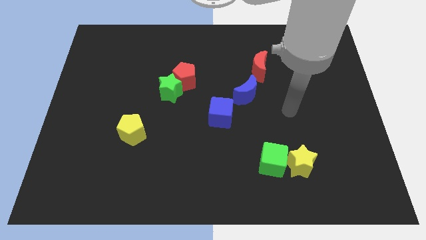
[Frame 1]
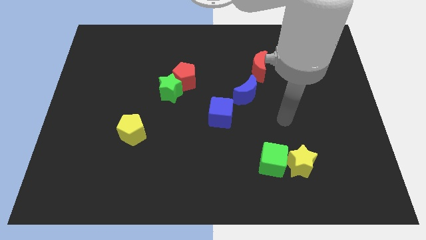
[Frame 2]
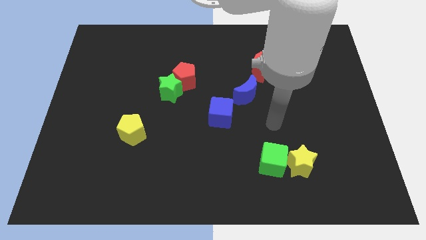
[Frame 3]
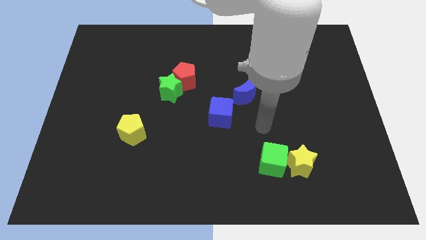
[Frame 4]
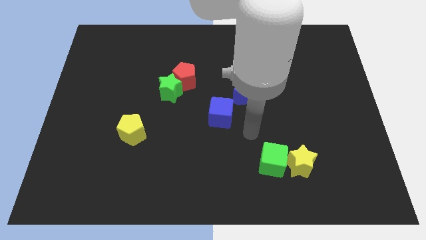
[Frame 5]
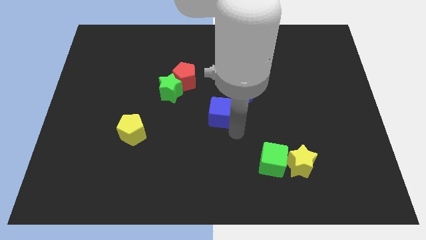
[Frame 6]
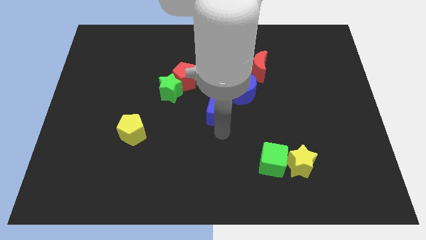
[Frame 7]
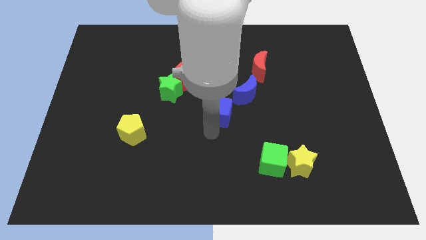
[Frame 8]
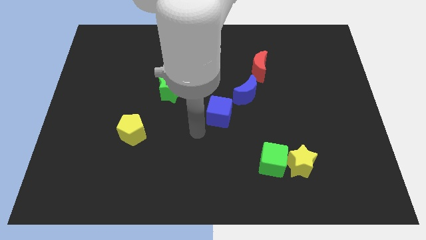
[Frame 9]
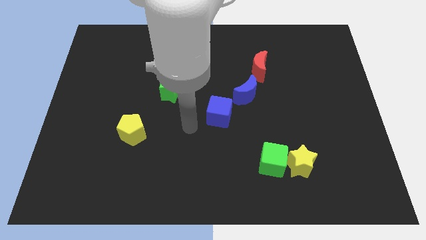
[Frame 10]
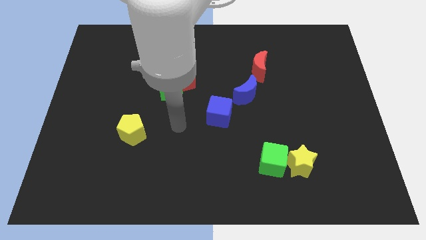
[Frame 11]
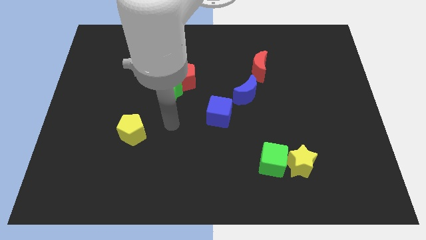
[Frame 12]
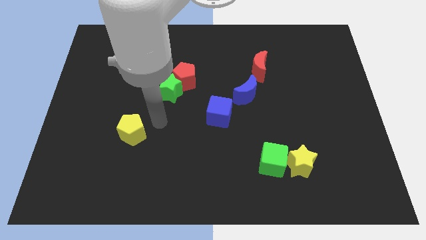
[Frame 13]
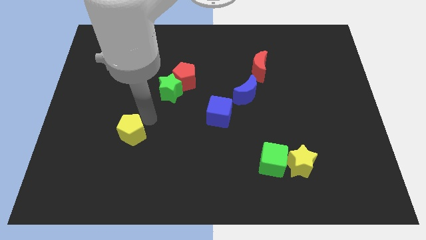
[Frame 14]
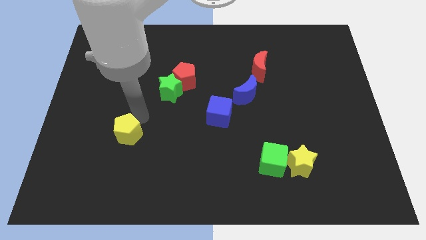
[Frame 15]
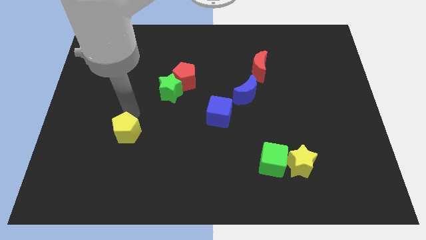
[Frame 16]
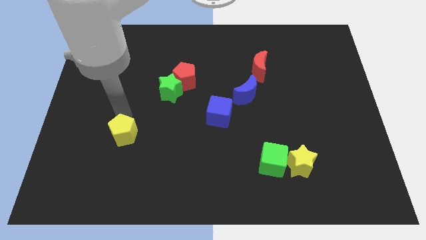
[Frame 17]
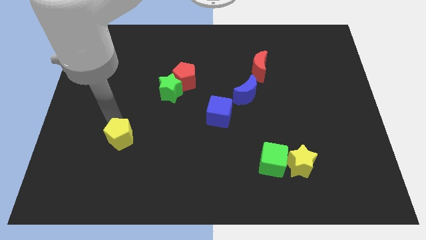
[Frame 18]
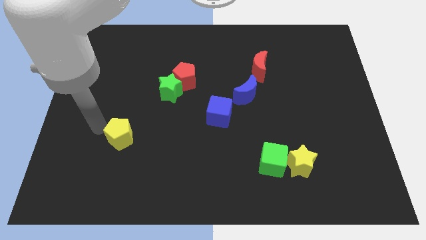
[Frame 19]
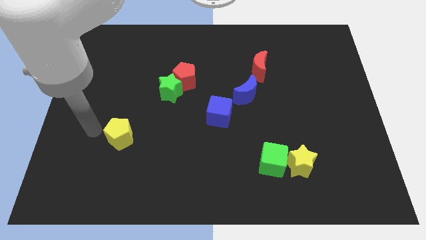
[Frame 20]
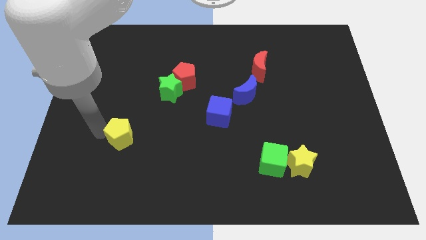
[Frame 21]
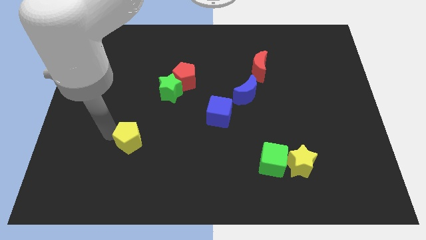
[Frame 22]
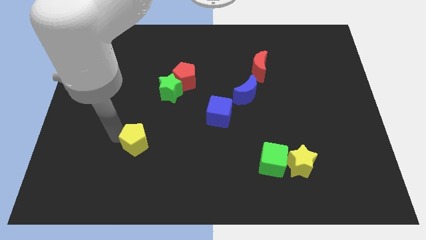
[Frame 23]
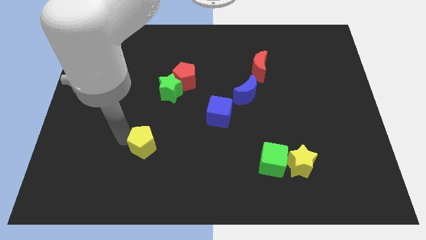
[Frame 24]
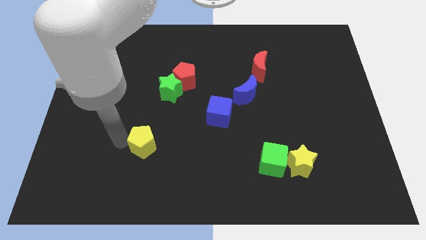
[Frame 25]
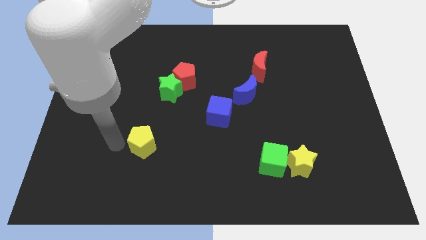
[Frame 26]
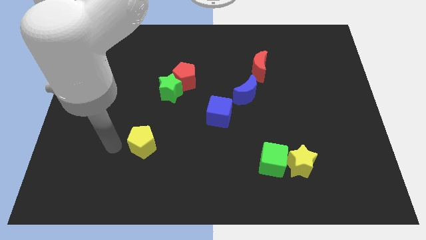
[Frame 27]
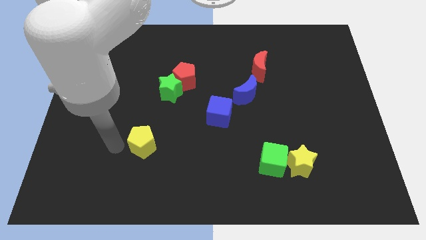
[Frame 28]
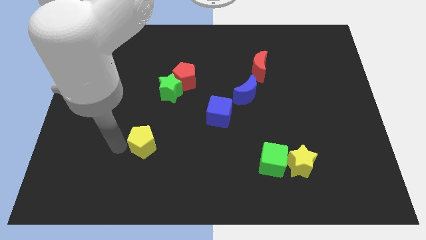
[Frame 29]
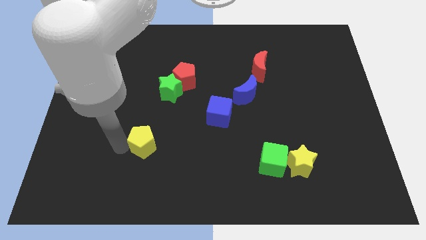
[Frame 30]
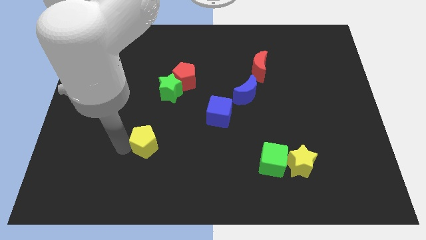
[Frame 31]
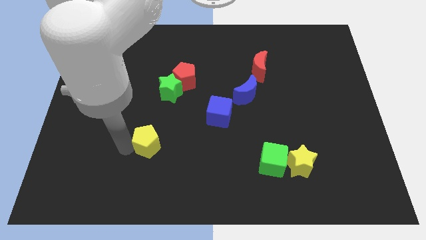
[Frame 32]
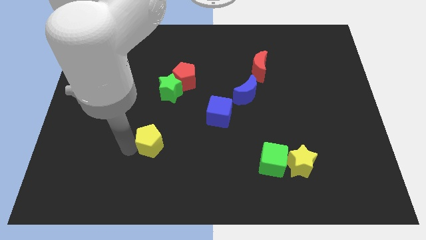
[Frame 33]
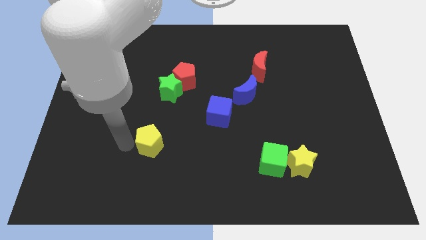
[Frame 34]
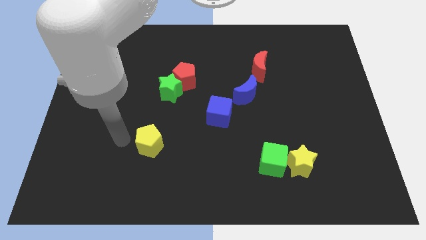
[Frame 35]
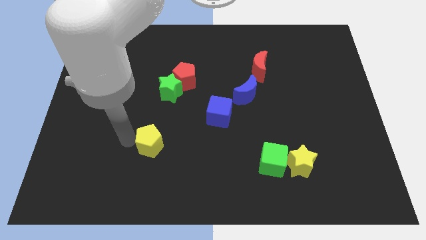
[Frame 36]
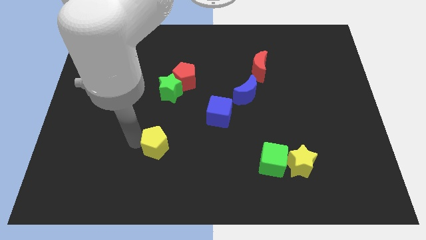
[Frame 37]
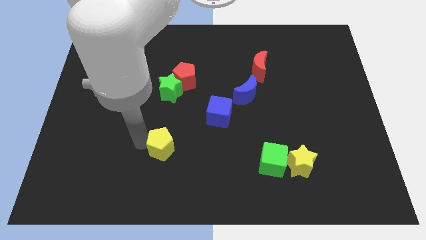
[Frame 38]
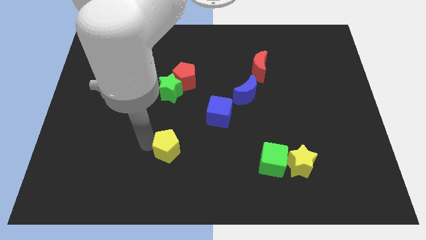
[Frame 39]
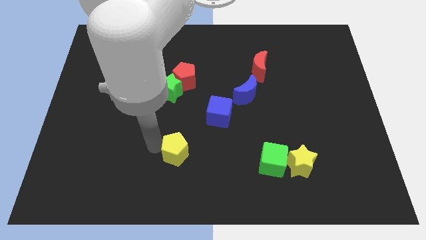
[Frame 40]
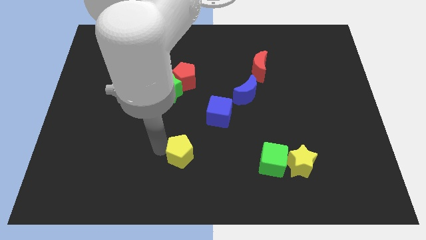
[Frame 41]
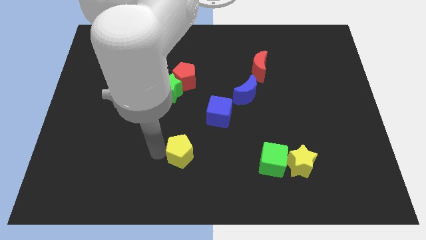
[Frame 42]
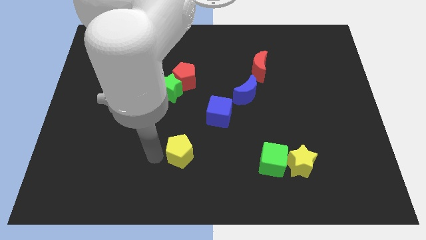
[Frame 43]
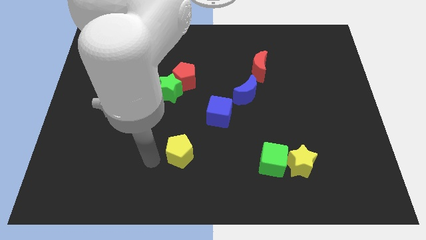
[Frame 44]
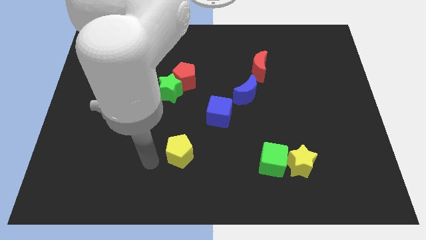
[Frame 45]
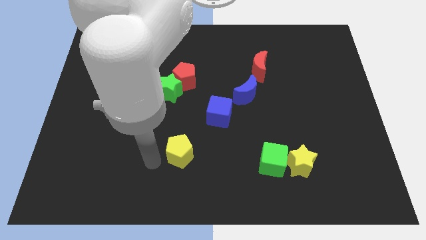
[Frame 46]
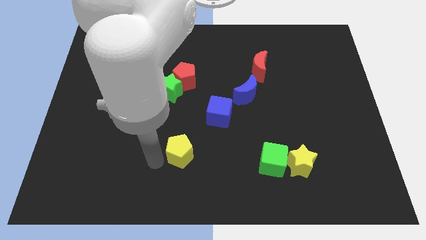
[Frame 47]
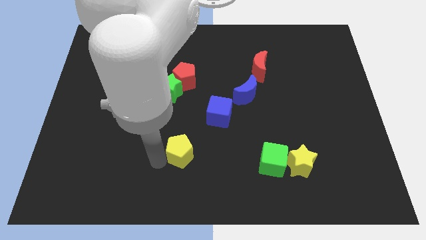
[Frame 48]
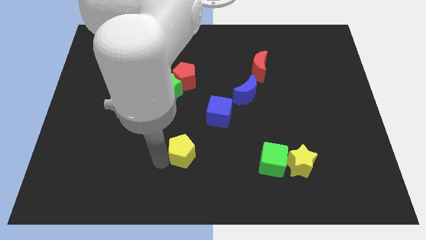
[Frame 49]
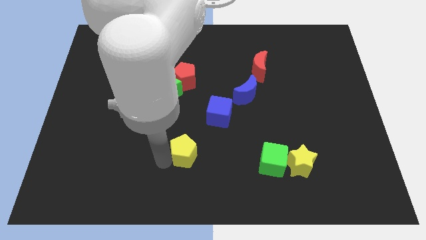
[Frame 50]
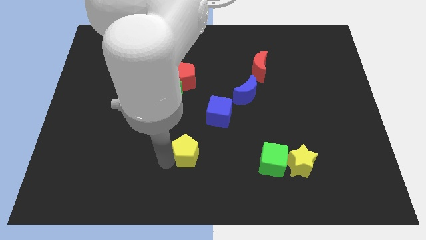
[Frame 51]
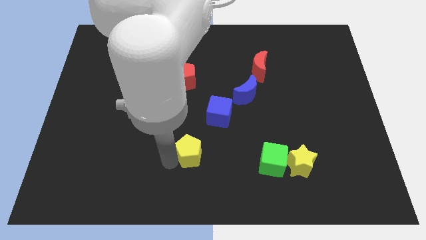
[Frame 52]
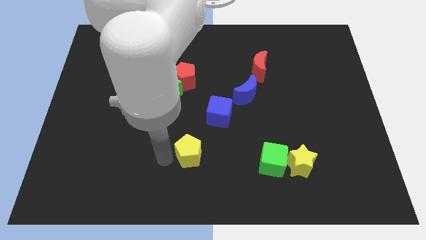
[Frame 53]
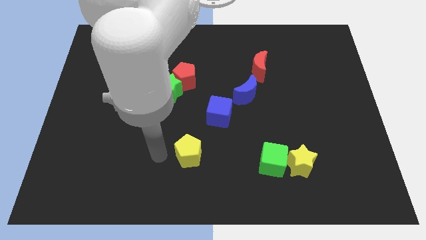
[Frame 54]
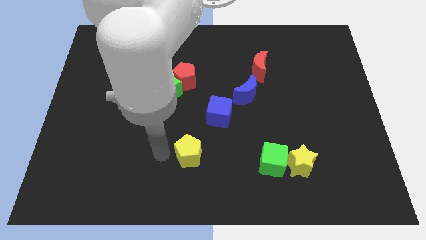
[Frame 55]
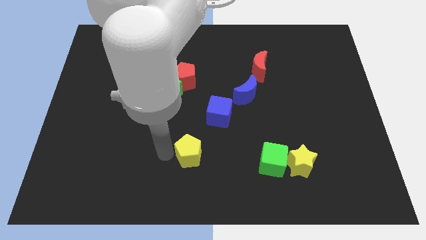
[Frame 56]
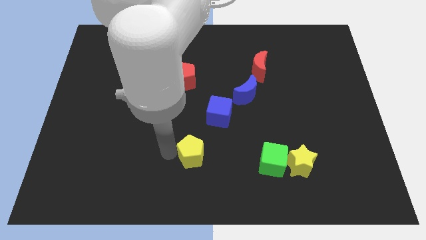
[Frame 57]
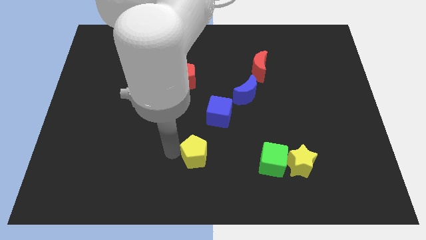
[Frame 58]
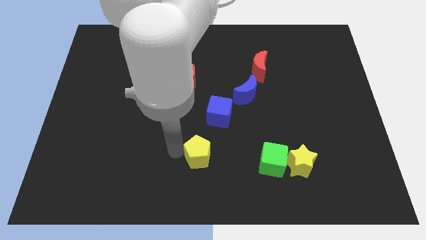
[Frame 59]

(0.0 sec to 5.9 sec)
push the yellow pentagon to the bottom of the blue cube

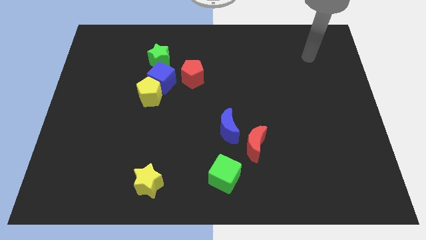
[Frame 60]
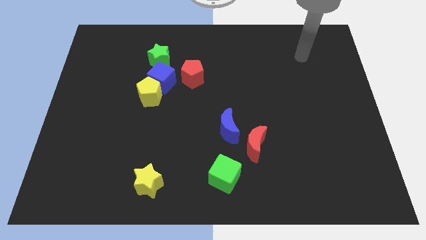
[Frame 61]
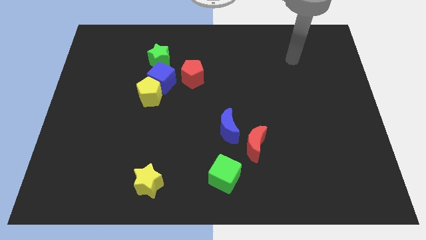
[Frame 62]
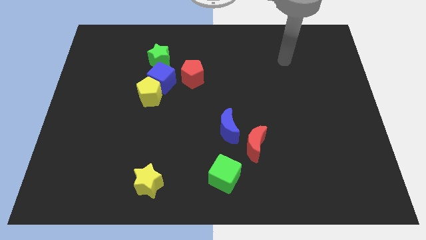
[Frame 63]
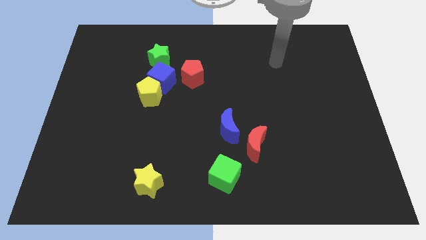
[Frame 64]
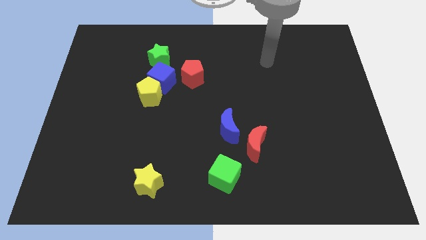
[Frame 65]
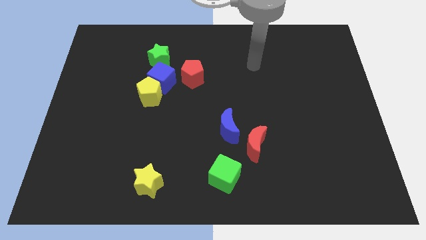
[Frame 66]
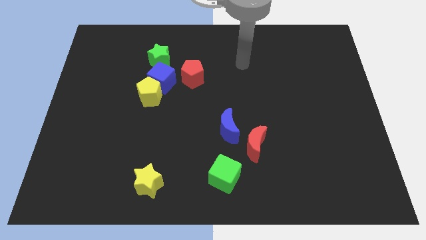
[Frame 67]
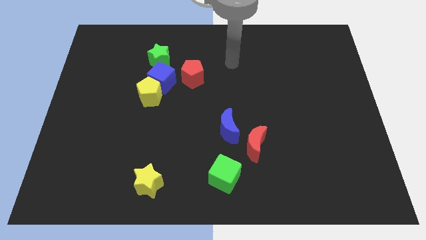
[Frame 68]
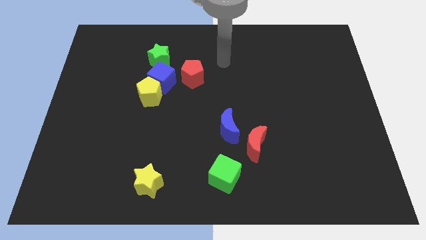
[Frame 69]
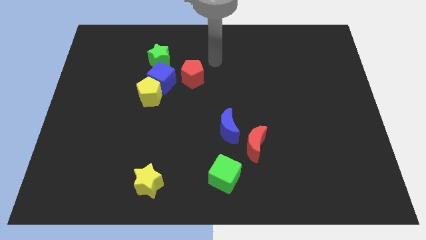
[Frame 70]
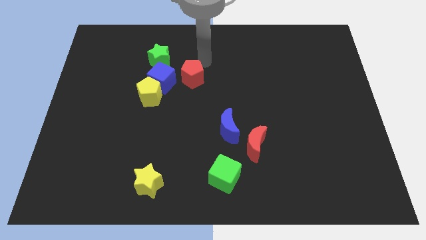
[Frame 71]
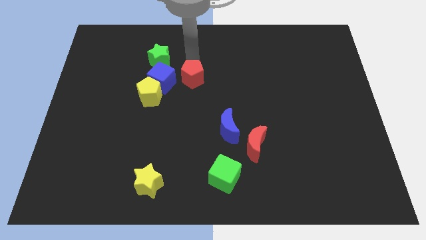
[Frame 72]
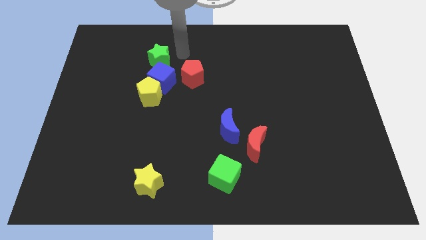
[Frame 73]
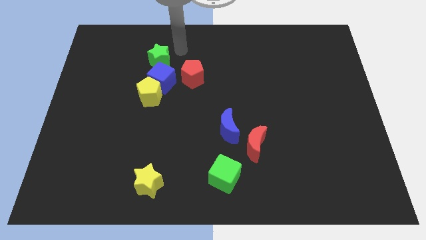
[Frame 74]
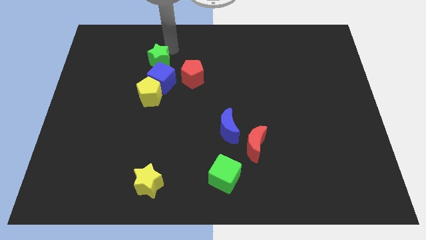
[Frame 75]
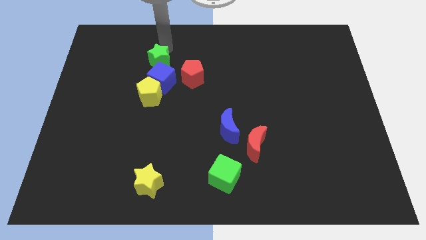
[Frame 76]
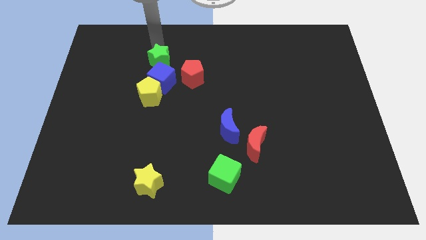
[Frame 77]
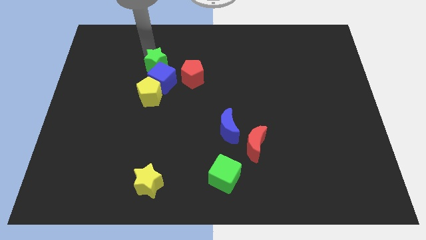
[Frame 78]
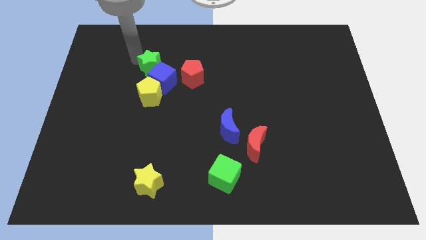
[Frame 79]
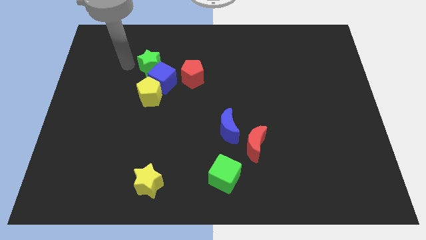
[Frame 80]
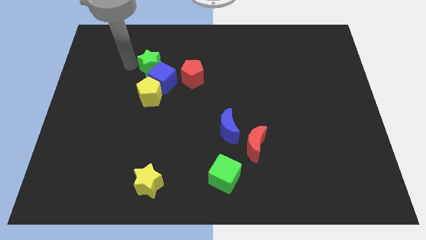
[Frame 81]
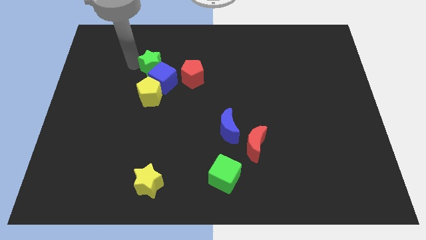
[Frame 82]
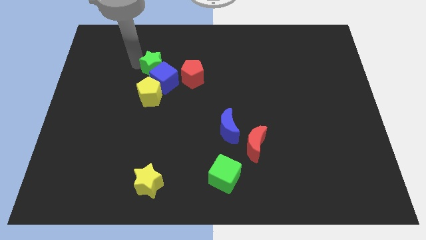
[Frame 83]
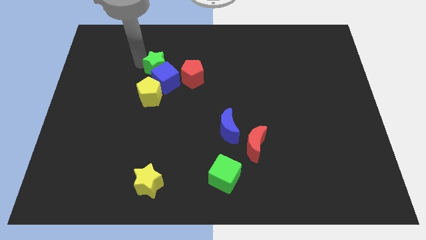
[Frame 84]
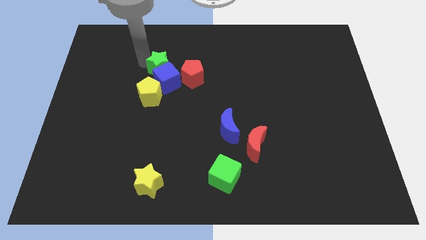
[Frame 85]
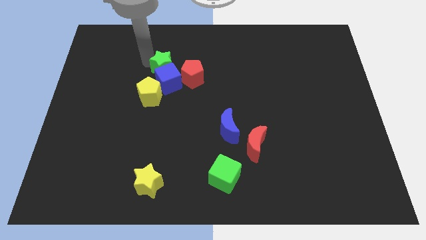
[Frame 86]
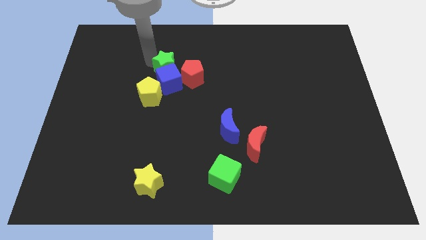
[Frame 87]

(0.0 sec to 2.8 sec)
put the green star diagonally up and to the right of the blue cube
